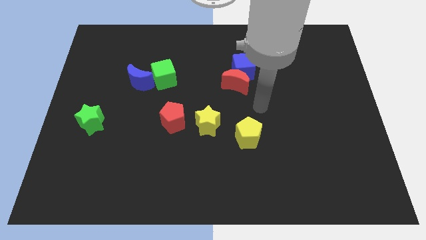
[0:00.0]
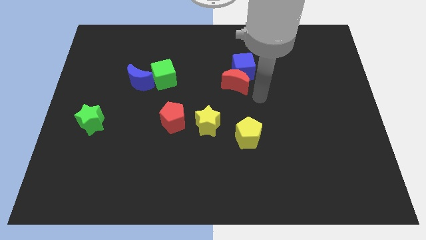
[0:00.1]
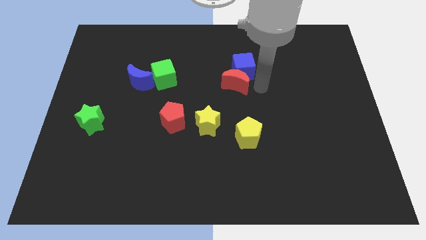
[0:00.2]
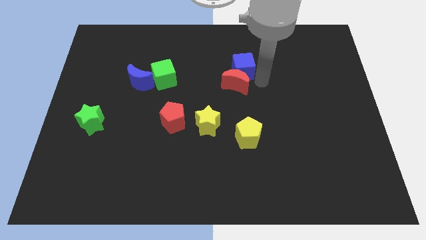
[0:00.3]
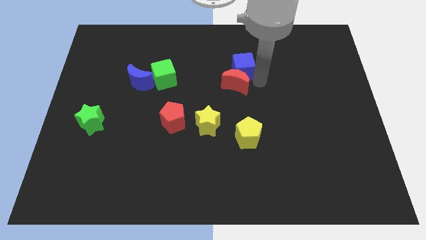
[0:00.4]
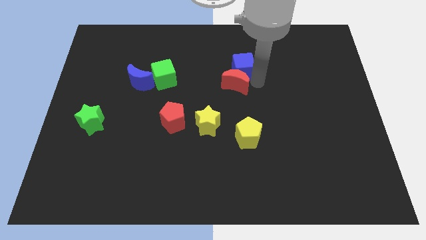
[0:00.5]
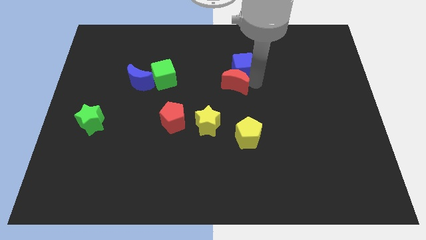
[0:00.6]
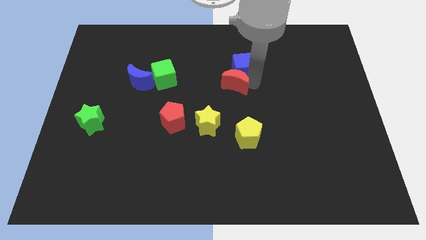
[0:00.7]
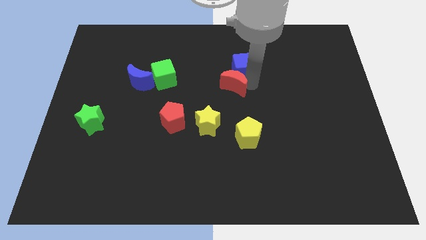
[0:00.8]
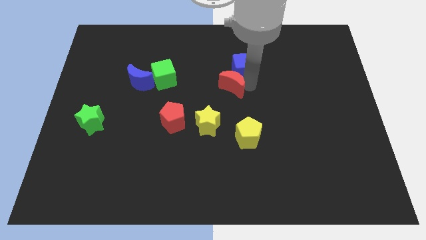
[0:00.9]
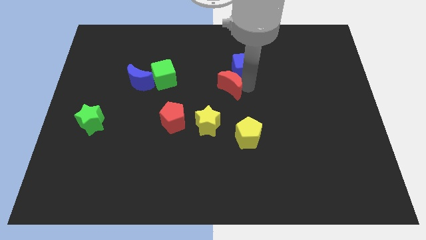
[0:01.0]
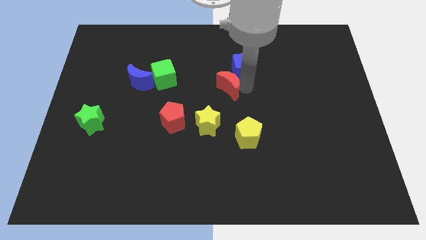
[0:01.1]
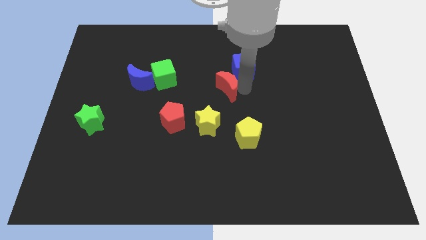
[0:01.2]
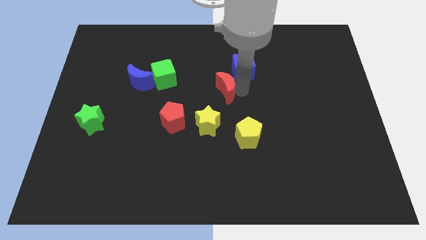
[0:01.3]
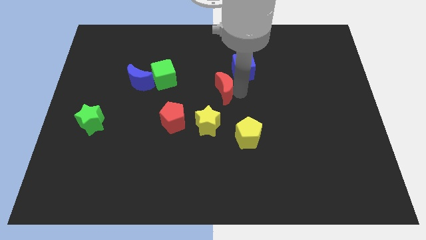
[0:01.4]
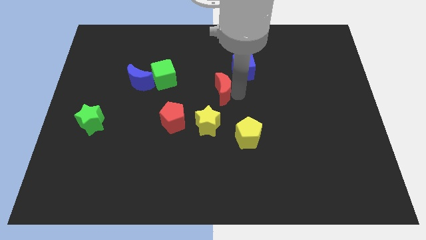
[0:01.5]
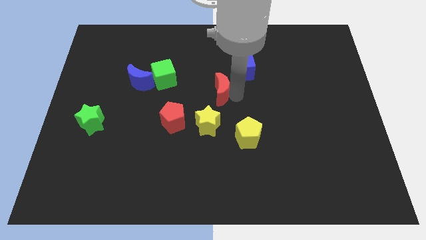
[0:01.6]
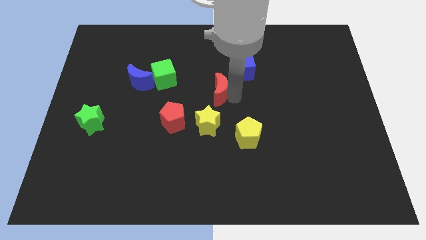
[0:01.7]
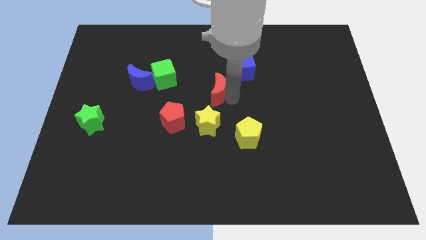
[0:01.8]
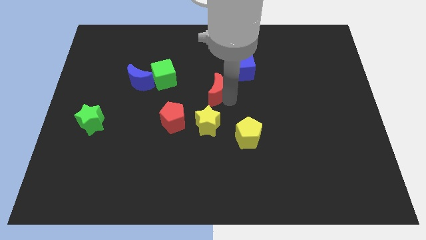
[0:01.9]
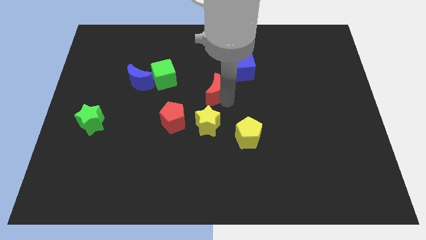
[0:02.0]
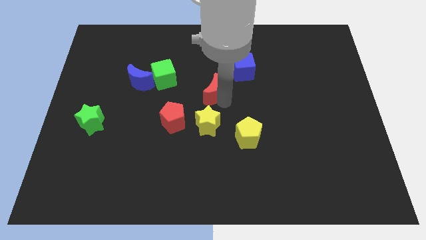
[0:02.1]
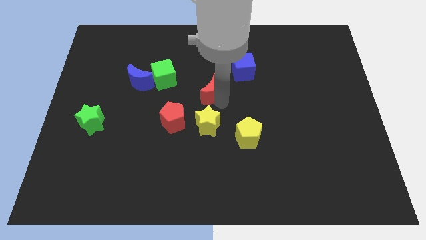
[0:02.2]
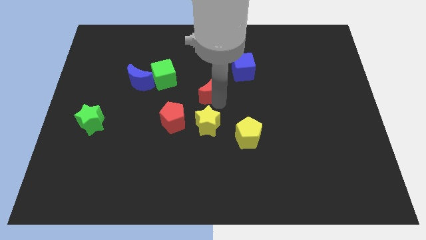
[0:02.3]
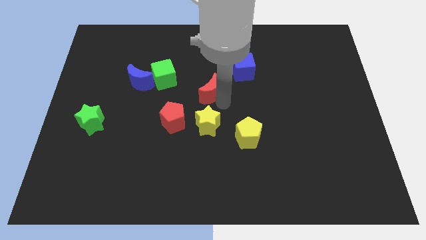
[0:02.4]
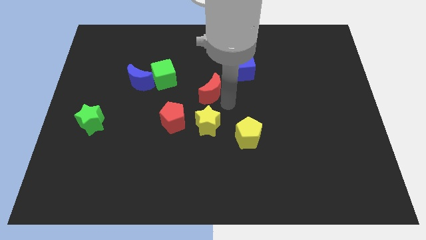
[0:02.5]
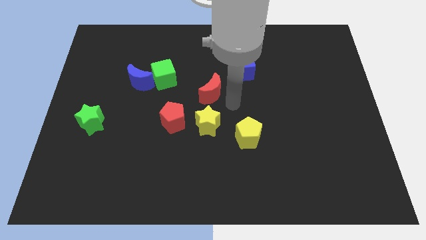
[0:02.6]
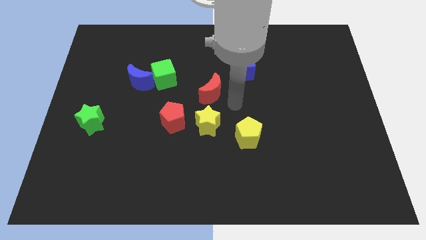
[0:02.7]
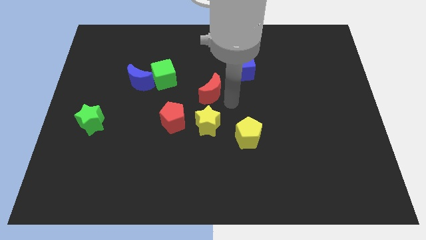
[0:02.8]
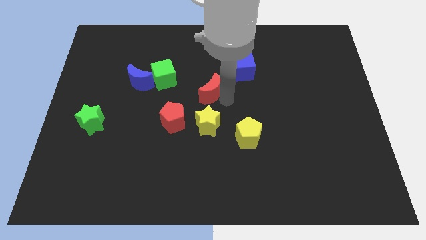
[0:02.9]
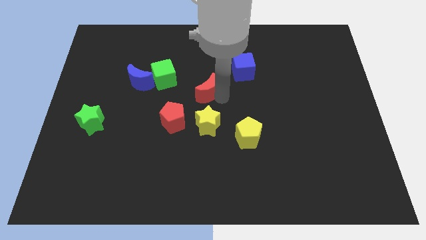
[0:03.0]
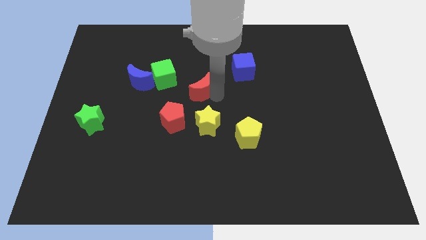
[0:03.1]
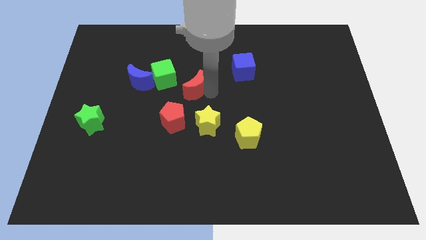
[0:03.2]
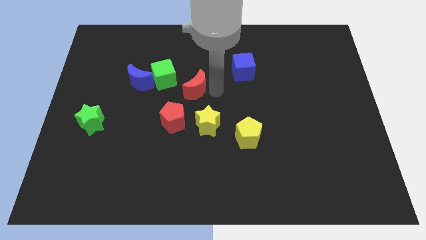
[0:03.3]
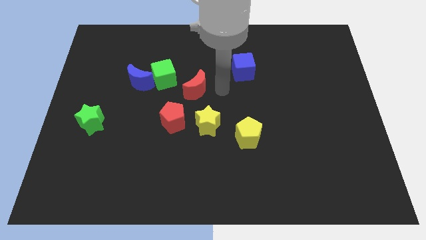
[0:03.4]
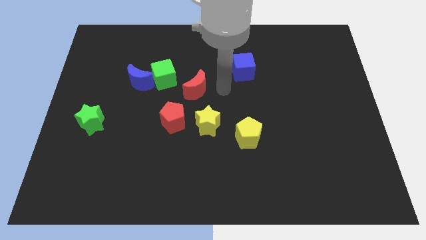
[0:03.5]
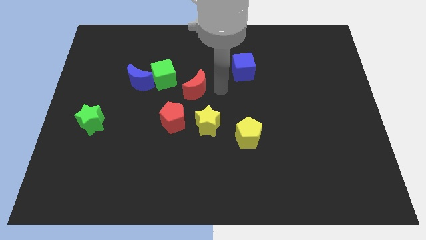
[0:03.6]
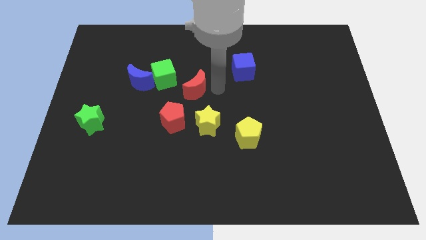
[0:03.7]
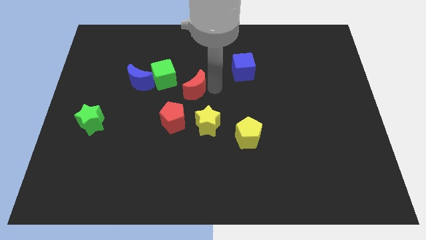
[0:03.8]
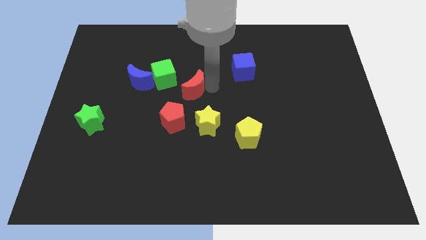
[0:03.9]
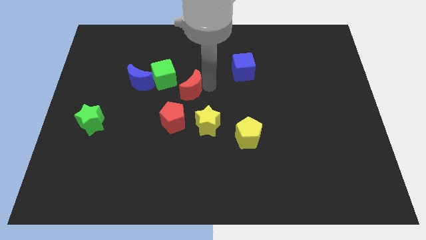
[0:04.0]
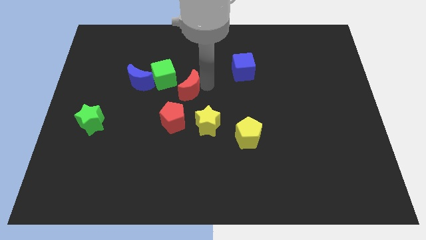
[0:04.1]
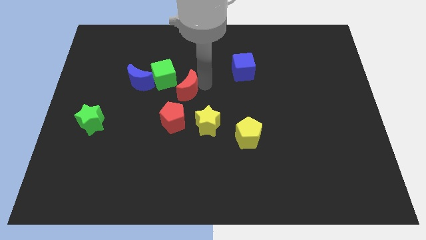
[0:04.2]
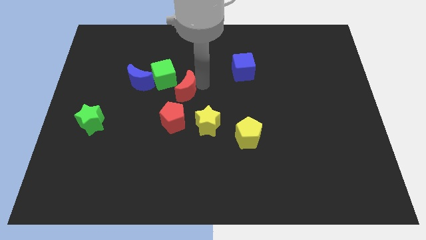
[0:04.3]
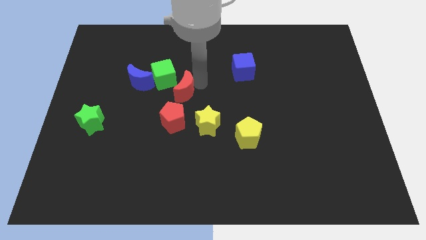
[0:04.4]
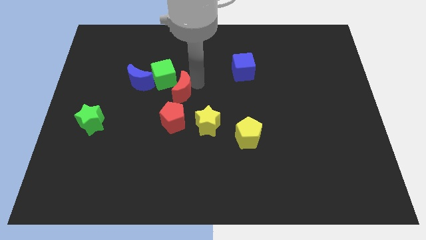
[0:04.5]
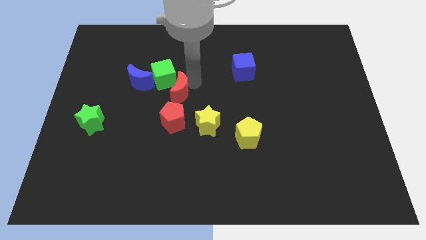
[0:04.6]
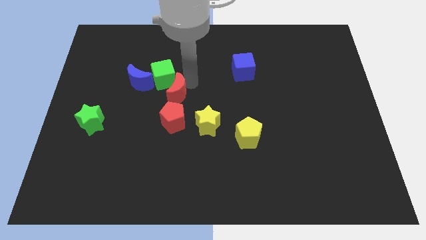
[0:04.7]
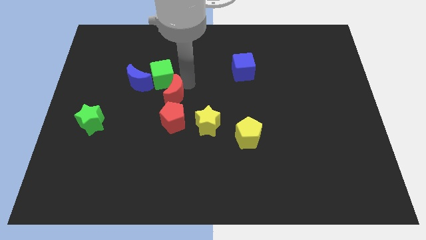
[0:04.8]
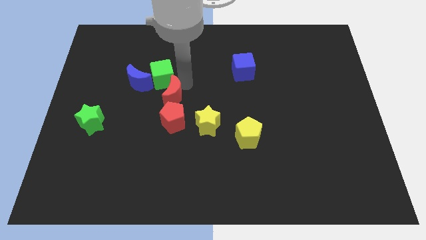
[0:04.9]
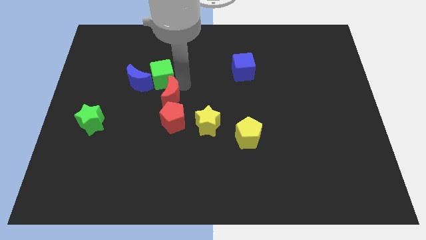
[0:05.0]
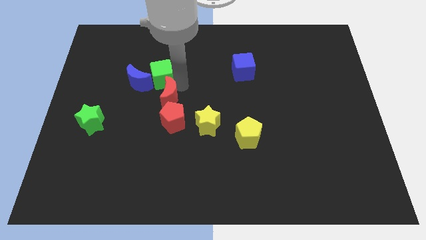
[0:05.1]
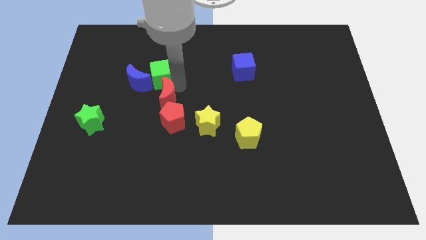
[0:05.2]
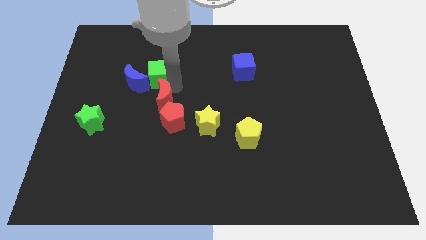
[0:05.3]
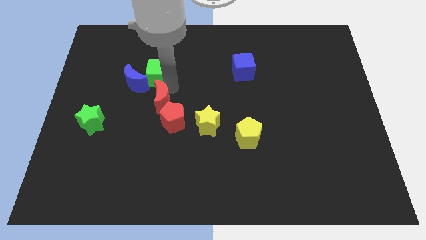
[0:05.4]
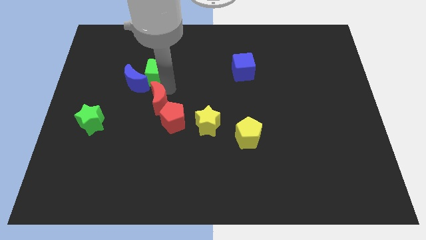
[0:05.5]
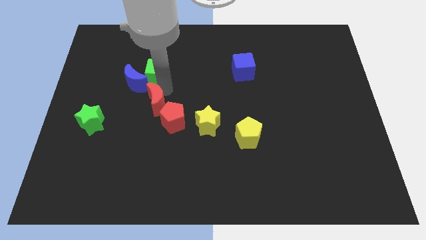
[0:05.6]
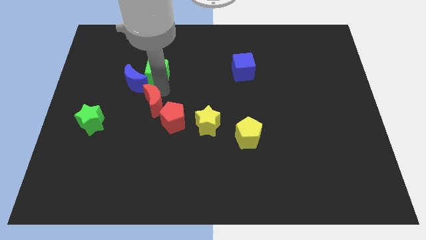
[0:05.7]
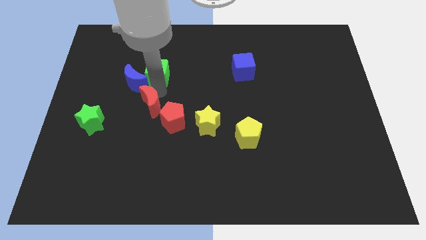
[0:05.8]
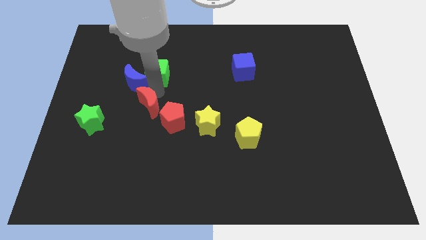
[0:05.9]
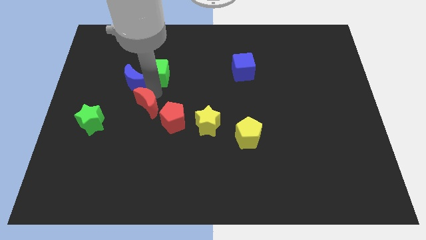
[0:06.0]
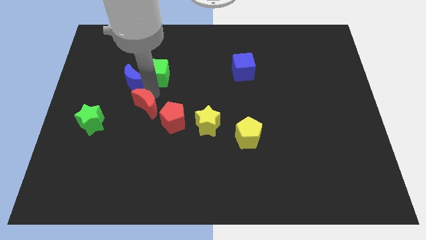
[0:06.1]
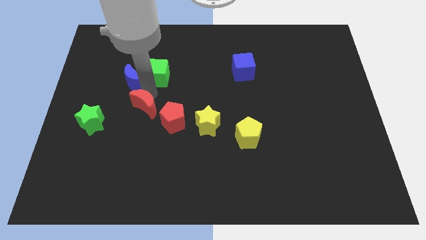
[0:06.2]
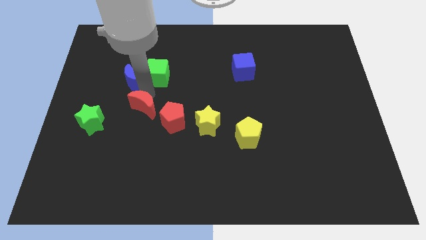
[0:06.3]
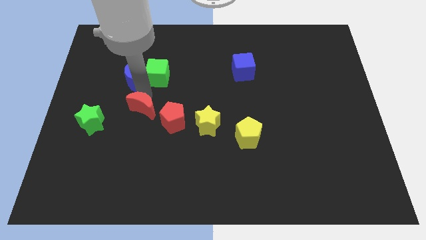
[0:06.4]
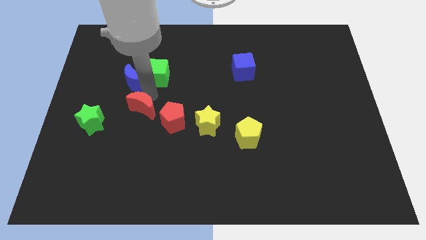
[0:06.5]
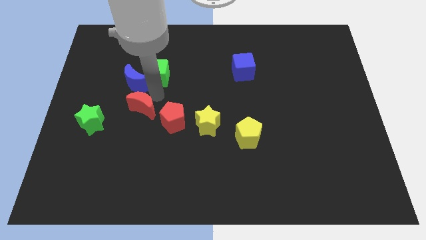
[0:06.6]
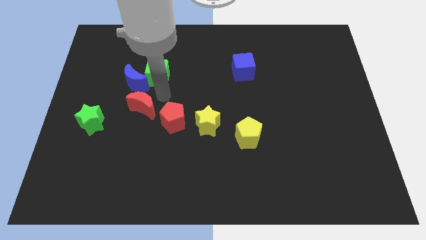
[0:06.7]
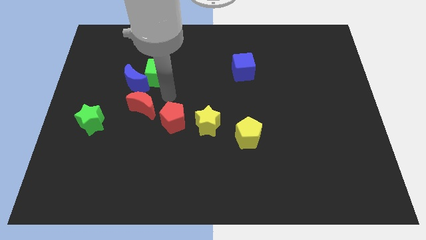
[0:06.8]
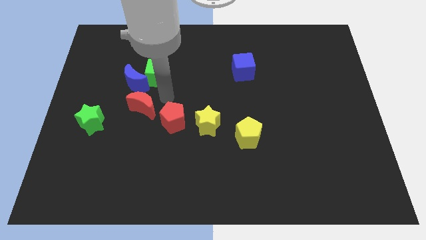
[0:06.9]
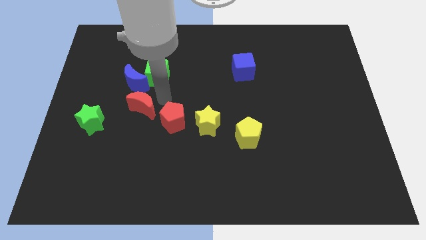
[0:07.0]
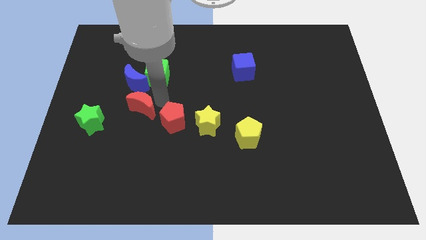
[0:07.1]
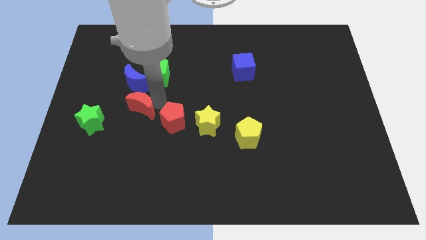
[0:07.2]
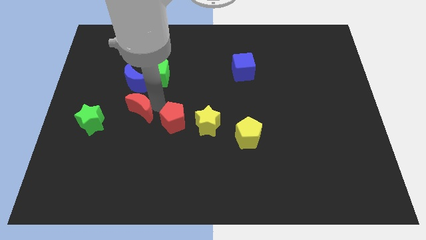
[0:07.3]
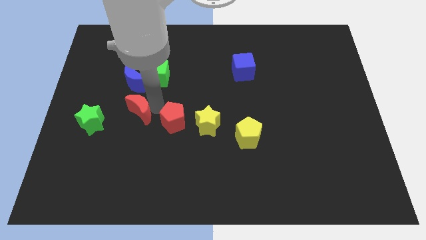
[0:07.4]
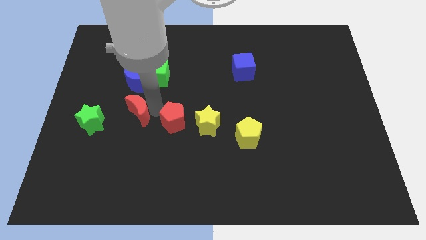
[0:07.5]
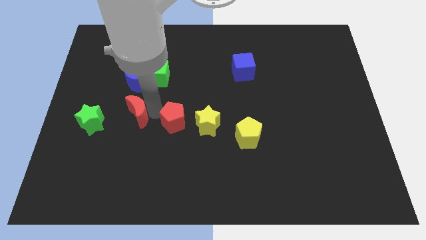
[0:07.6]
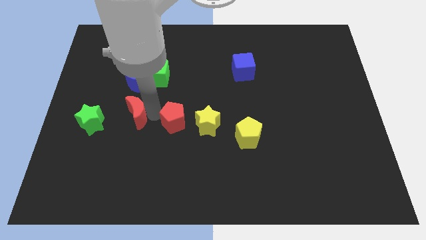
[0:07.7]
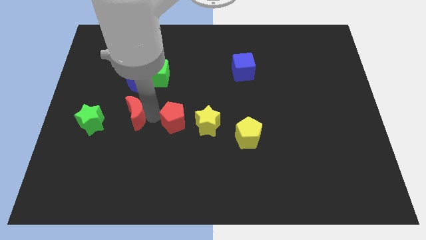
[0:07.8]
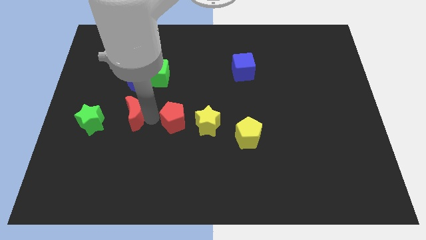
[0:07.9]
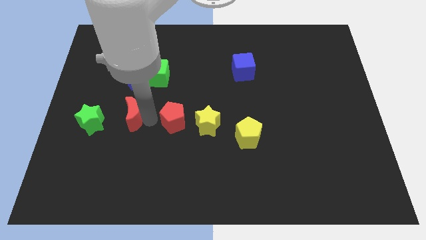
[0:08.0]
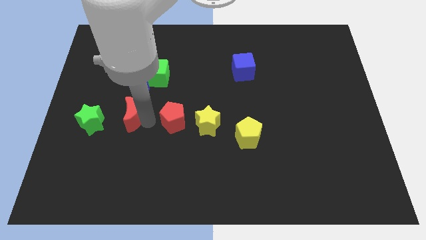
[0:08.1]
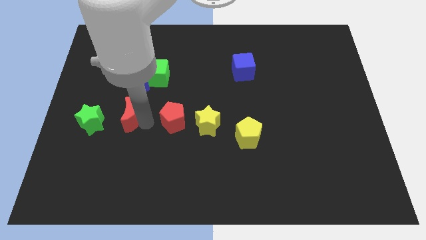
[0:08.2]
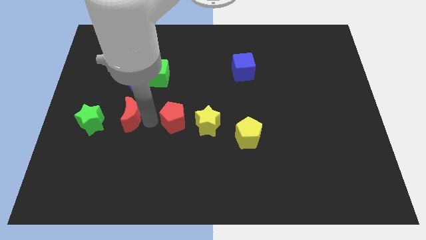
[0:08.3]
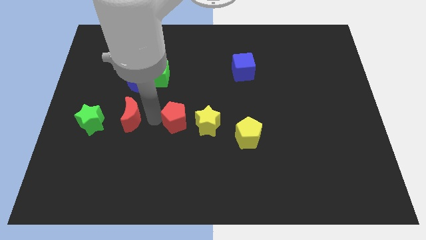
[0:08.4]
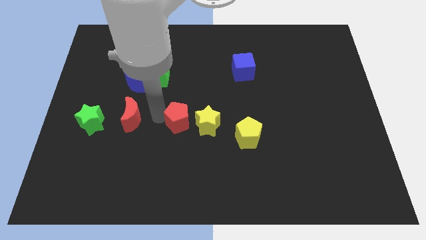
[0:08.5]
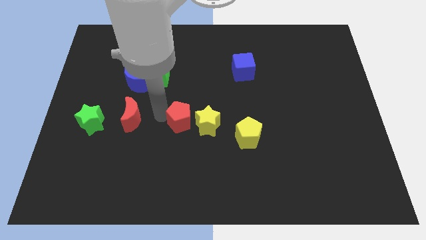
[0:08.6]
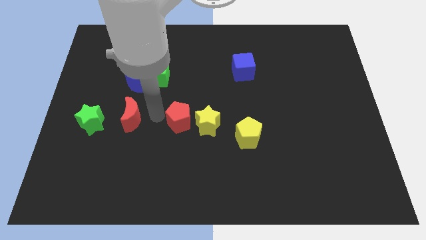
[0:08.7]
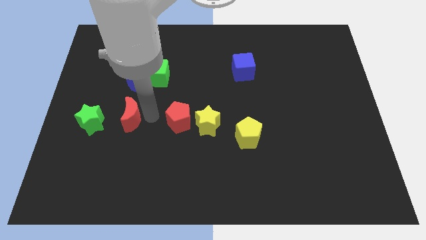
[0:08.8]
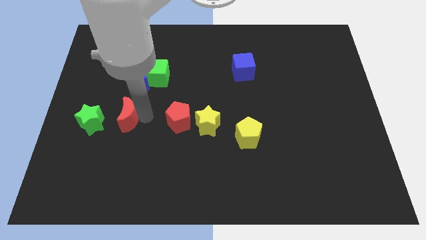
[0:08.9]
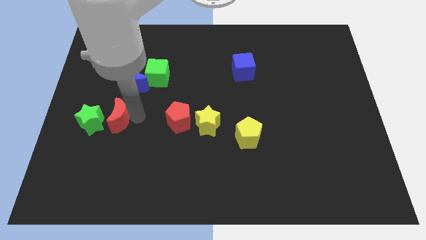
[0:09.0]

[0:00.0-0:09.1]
push the red moon towards the green star
